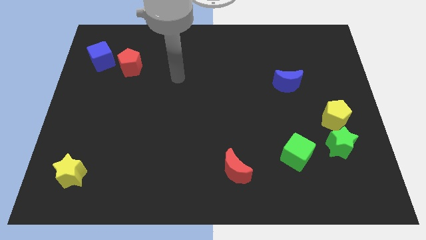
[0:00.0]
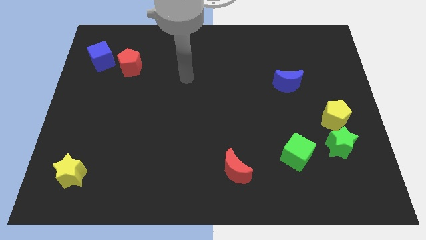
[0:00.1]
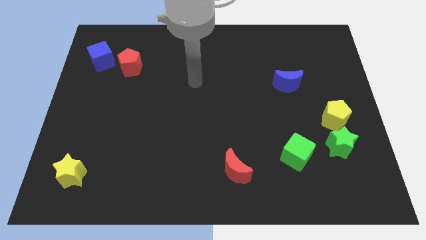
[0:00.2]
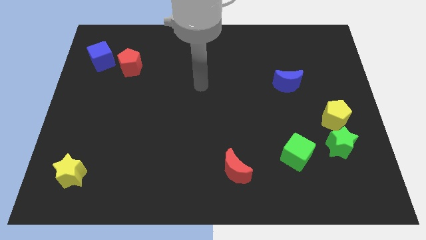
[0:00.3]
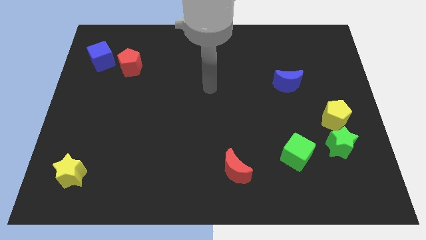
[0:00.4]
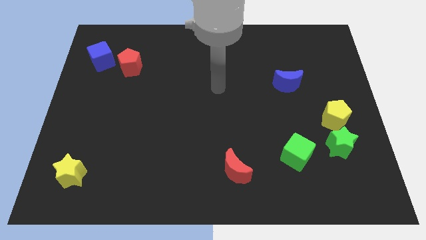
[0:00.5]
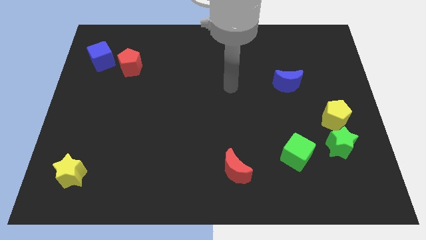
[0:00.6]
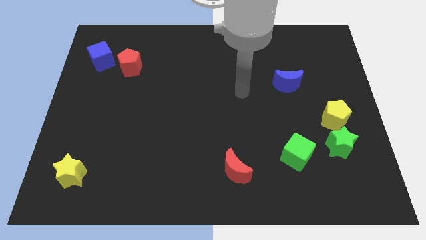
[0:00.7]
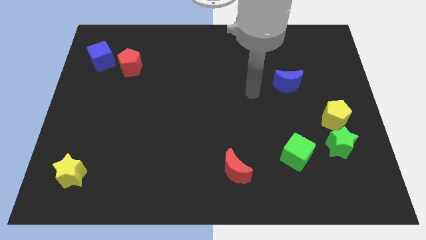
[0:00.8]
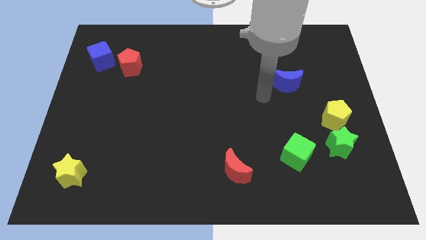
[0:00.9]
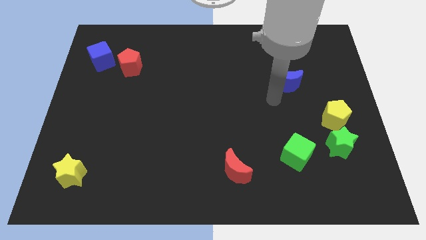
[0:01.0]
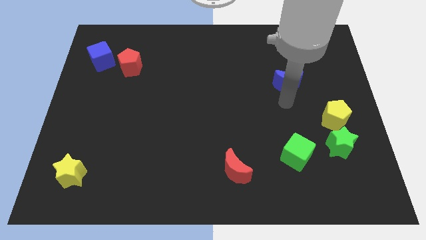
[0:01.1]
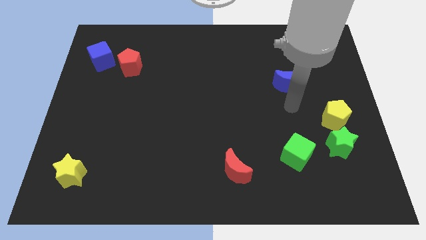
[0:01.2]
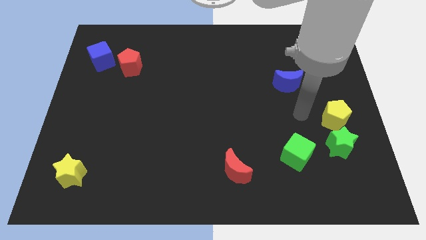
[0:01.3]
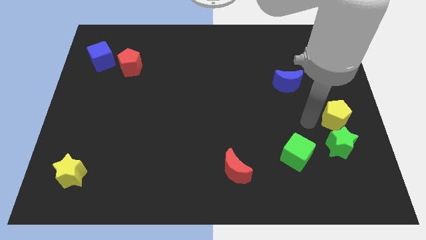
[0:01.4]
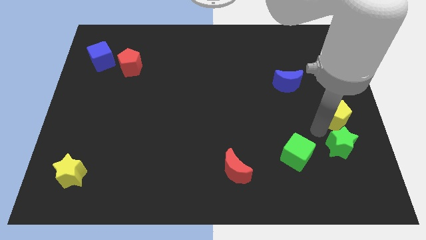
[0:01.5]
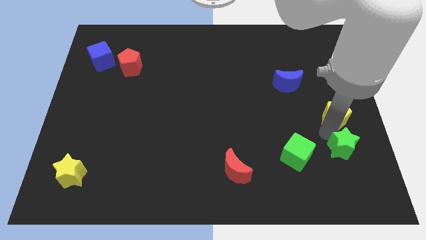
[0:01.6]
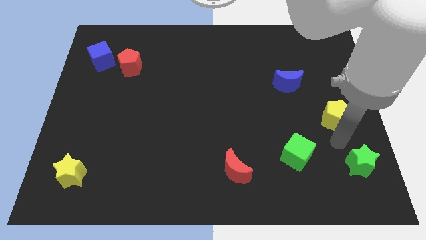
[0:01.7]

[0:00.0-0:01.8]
pull the yellow pentagon apart from the green star

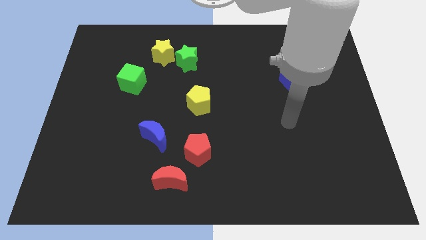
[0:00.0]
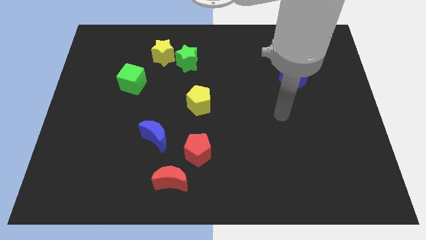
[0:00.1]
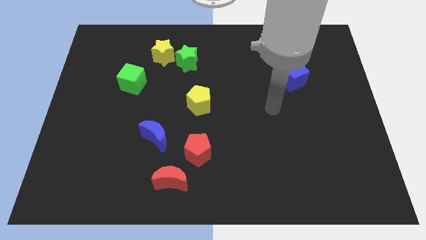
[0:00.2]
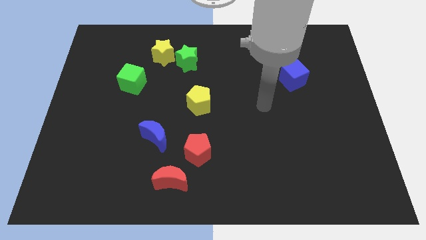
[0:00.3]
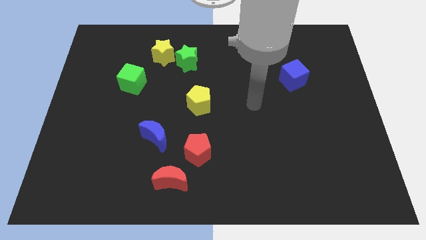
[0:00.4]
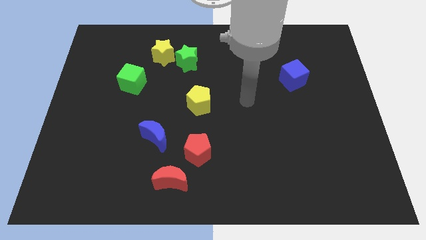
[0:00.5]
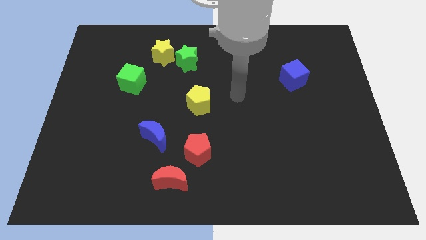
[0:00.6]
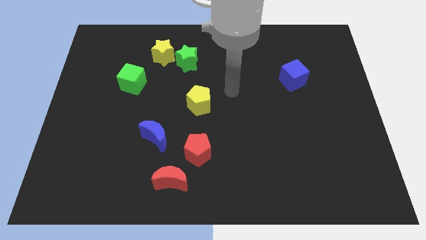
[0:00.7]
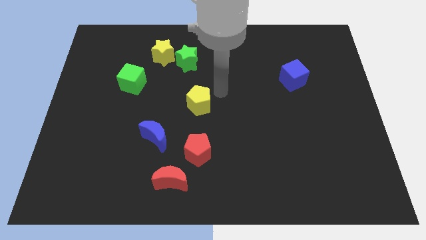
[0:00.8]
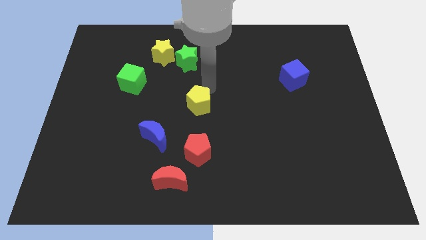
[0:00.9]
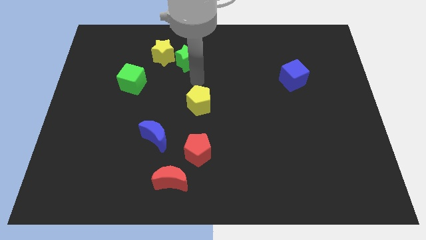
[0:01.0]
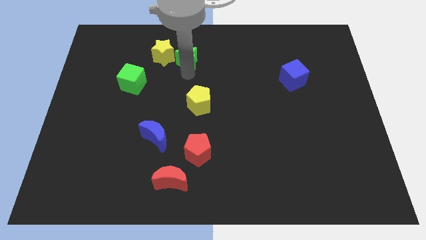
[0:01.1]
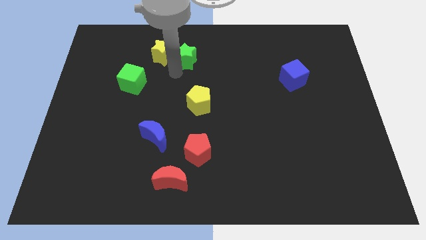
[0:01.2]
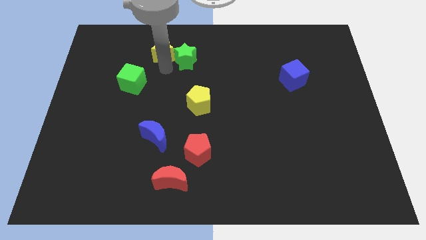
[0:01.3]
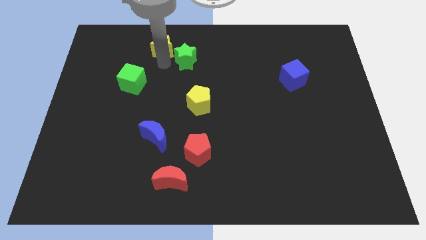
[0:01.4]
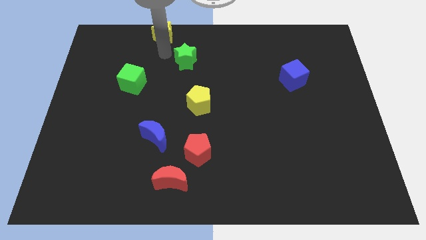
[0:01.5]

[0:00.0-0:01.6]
separate the green star from the yellow star

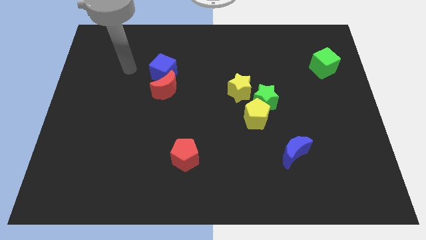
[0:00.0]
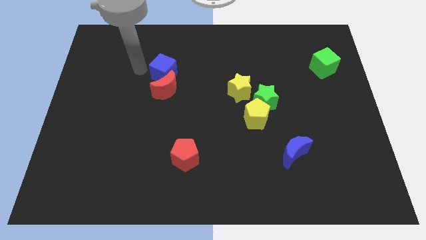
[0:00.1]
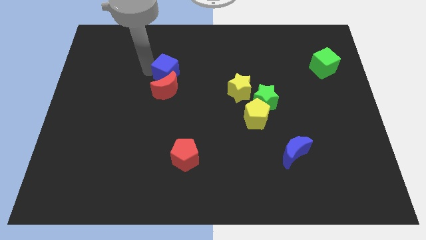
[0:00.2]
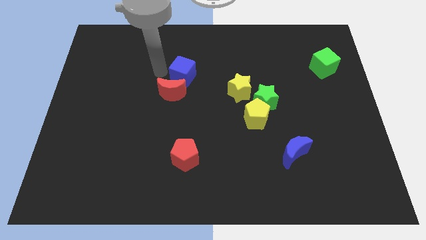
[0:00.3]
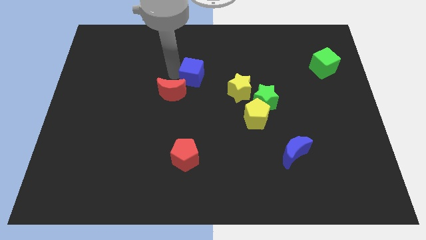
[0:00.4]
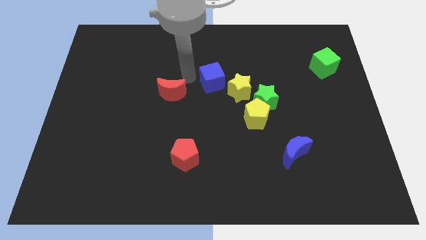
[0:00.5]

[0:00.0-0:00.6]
pull the red moon apart from the blue cube

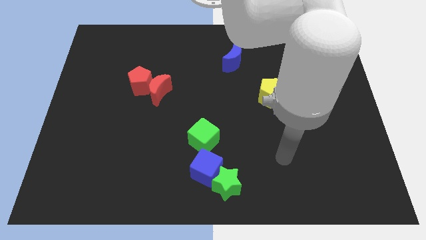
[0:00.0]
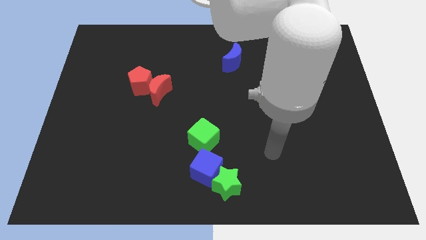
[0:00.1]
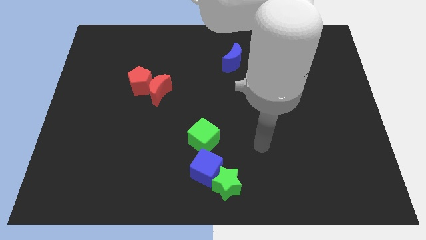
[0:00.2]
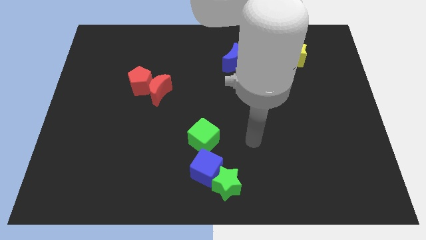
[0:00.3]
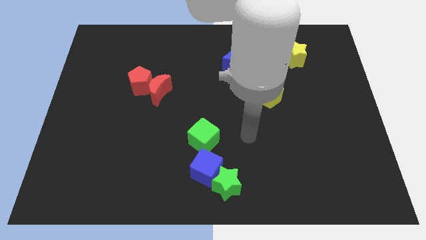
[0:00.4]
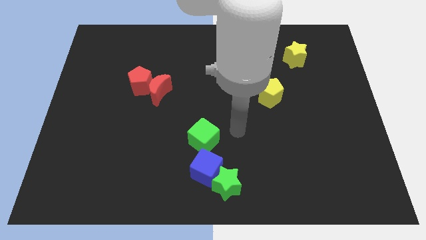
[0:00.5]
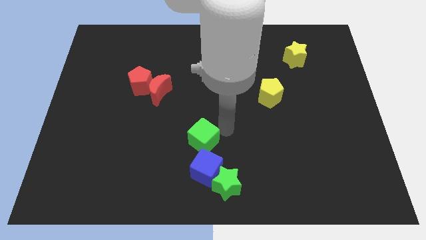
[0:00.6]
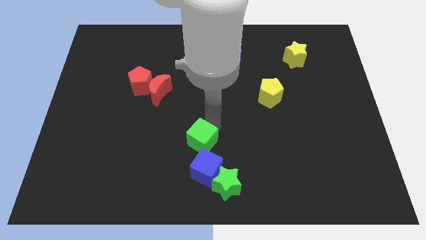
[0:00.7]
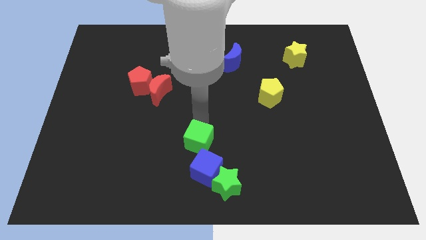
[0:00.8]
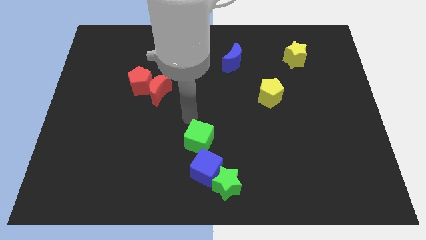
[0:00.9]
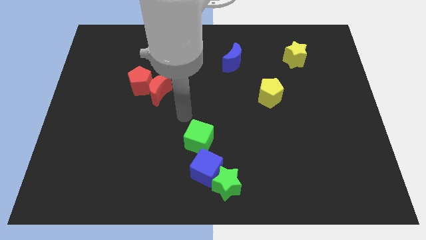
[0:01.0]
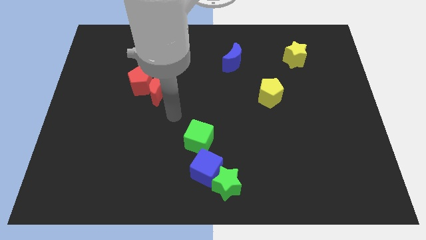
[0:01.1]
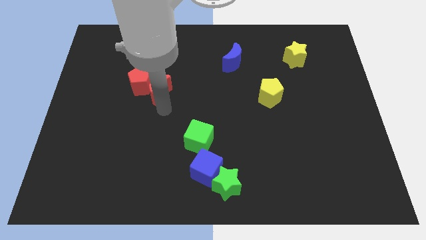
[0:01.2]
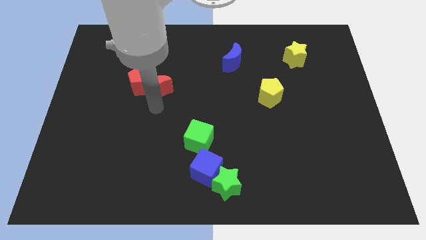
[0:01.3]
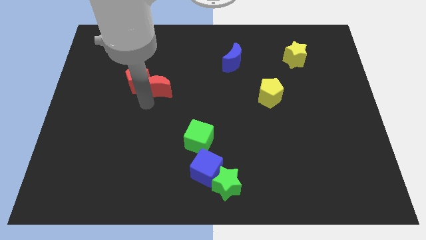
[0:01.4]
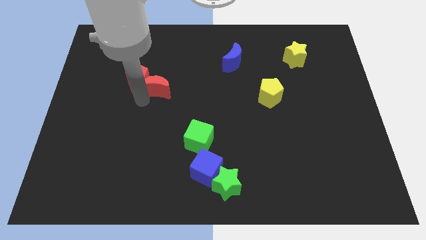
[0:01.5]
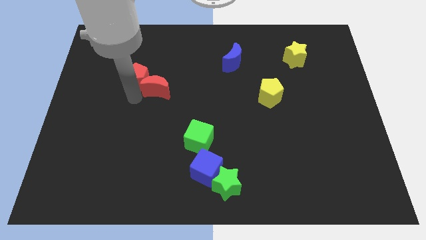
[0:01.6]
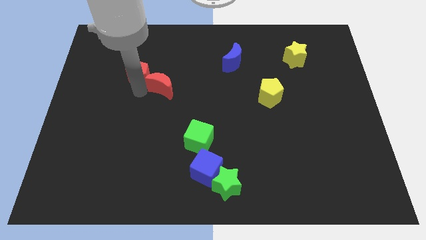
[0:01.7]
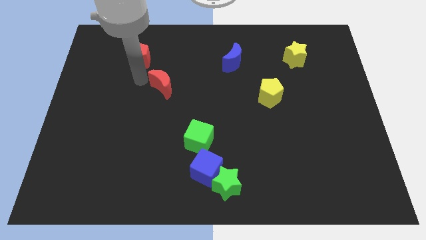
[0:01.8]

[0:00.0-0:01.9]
separate the red moon from the red pentagon

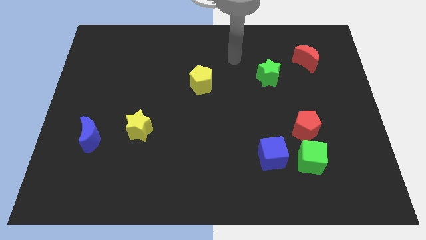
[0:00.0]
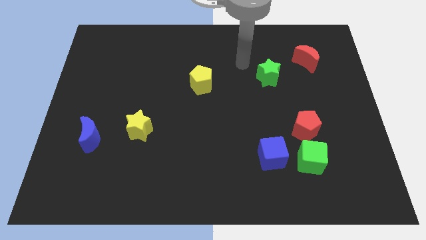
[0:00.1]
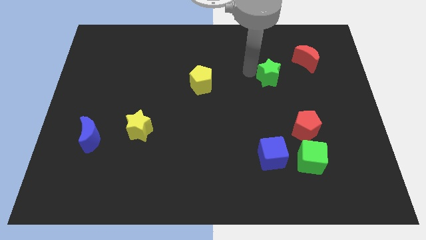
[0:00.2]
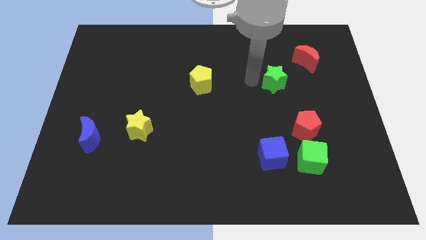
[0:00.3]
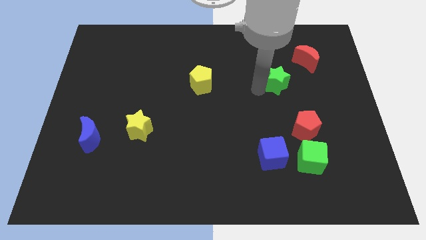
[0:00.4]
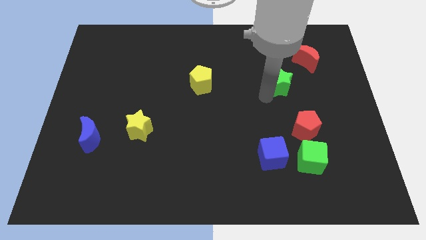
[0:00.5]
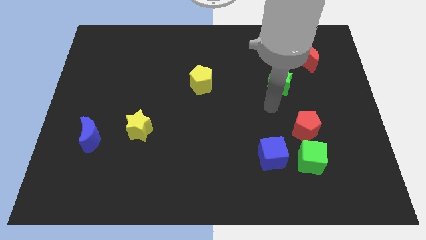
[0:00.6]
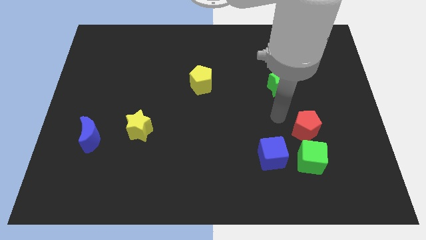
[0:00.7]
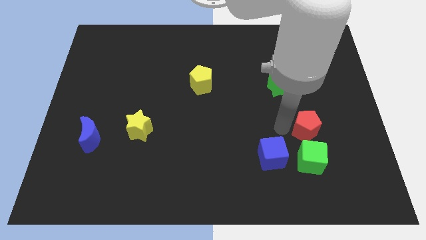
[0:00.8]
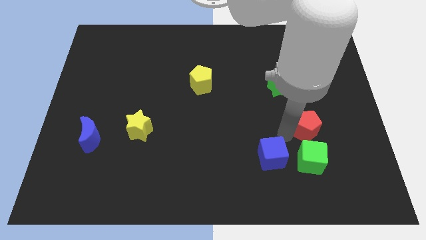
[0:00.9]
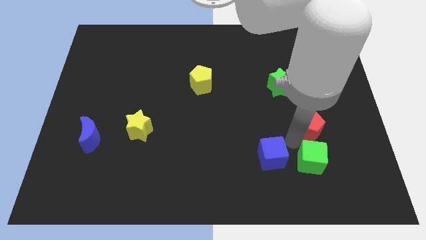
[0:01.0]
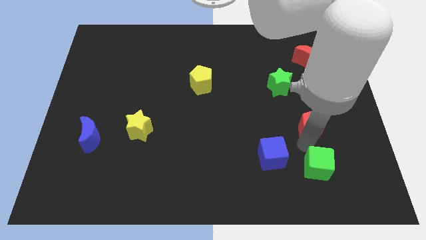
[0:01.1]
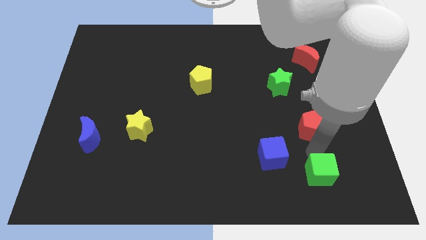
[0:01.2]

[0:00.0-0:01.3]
pull the red pentagon apart from the green cube

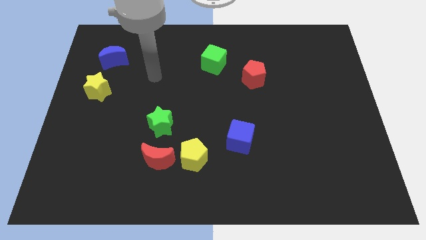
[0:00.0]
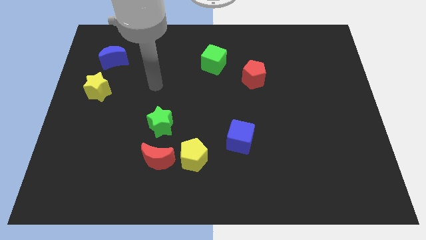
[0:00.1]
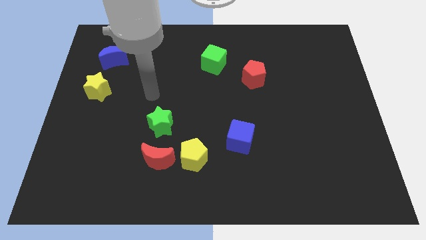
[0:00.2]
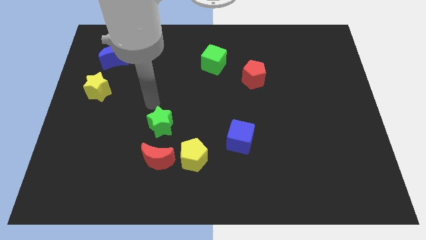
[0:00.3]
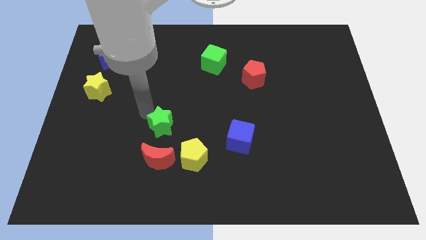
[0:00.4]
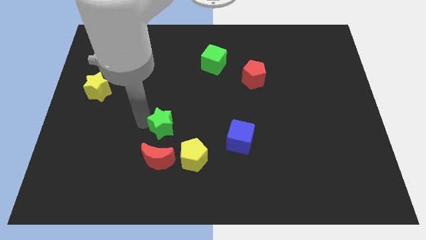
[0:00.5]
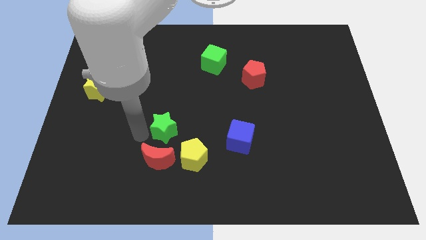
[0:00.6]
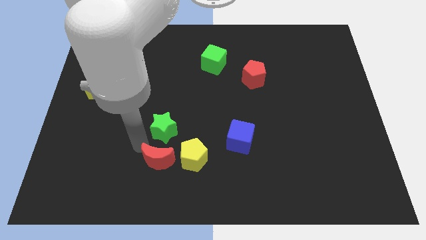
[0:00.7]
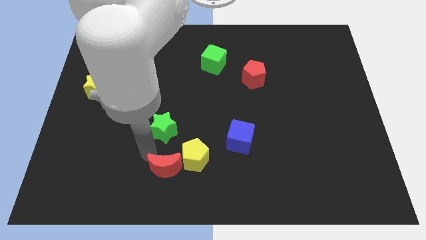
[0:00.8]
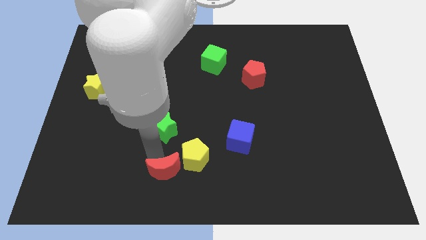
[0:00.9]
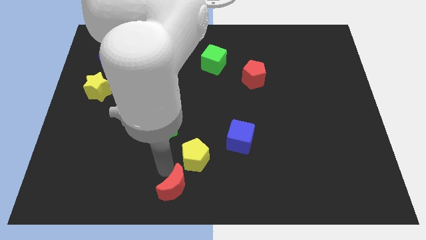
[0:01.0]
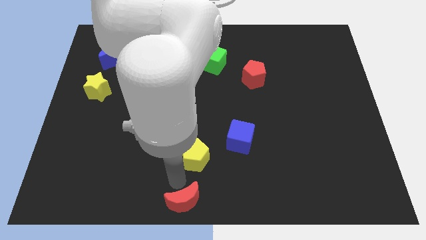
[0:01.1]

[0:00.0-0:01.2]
separate the yellow pentagon from the red moon

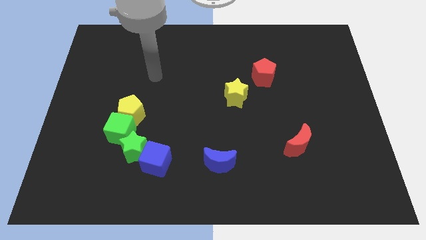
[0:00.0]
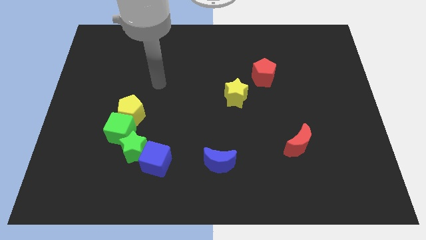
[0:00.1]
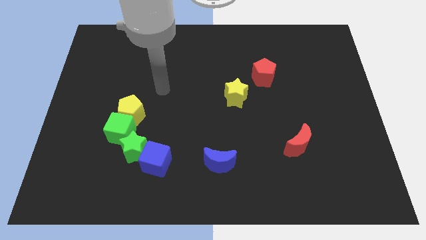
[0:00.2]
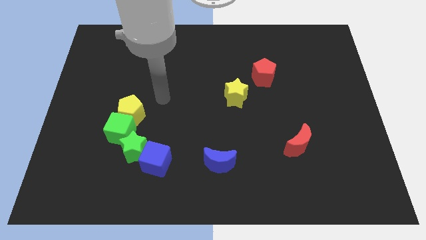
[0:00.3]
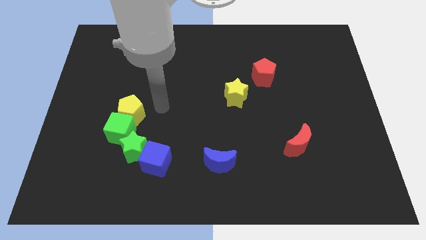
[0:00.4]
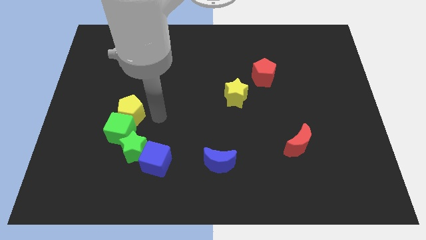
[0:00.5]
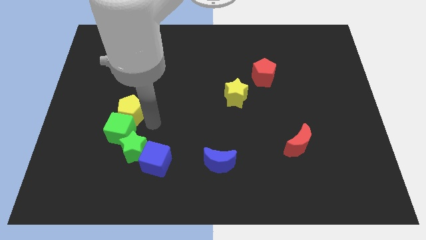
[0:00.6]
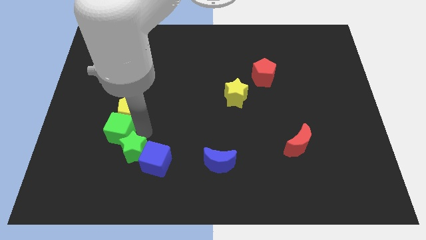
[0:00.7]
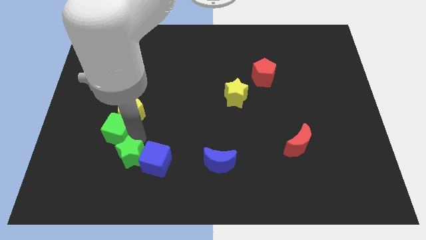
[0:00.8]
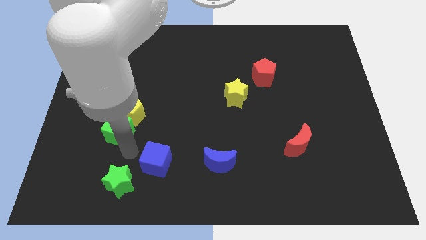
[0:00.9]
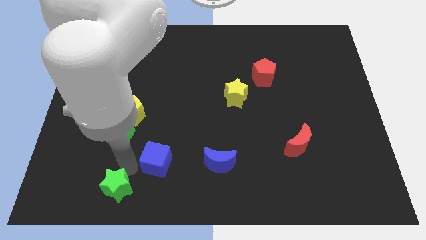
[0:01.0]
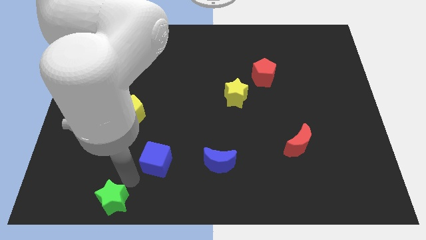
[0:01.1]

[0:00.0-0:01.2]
pull the blue cube apart from the green star
